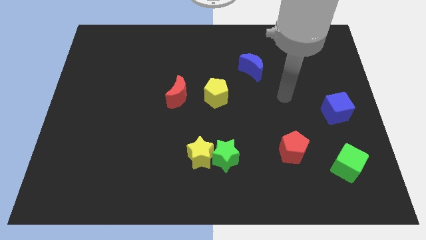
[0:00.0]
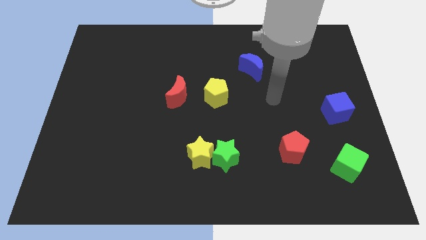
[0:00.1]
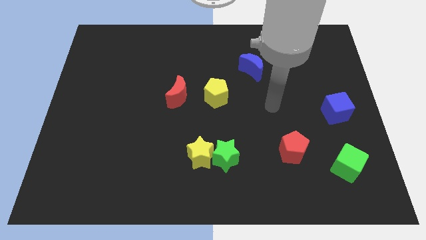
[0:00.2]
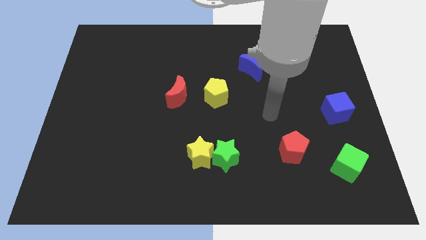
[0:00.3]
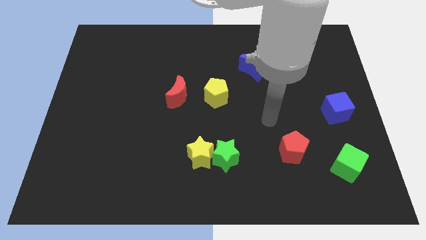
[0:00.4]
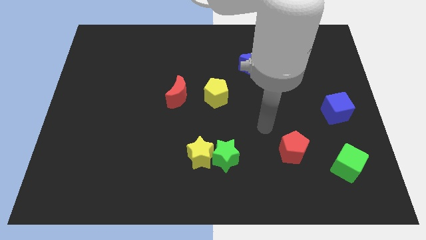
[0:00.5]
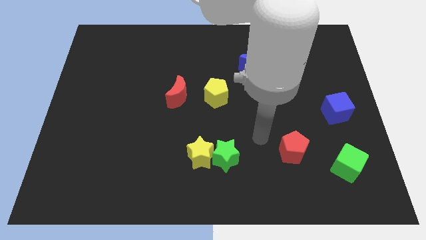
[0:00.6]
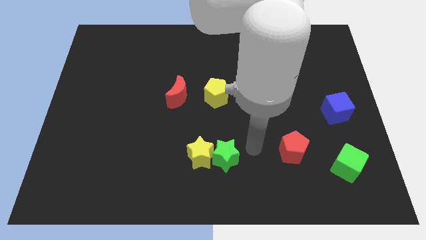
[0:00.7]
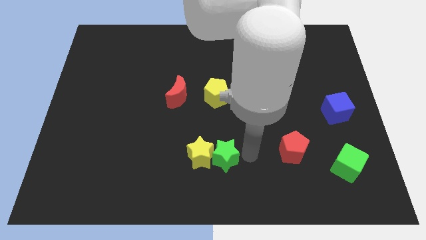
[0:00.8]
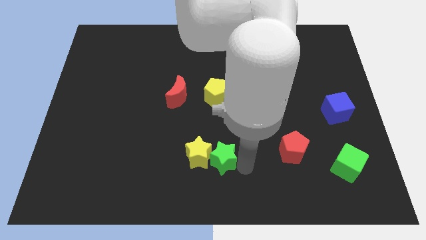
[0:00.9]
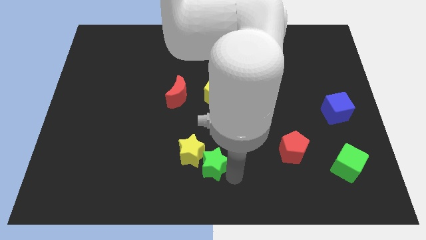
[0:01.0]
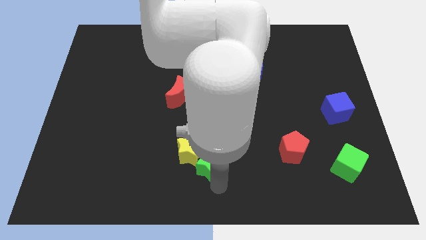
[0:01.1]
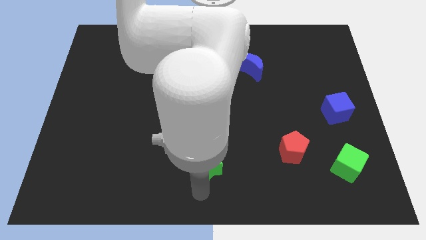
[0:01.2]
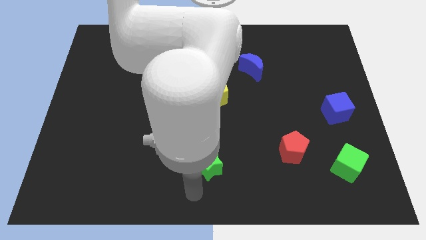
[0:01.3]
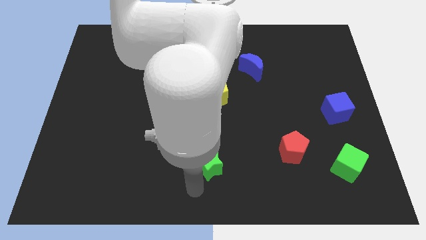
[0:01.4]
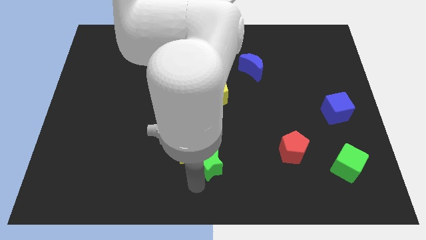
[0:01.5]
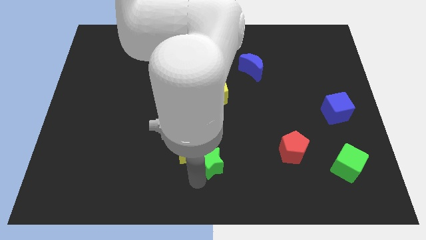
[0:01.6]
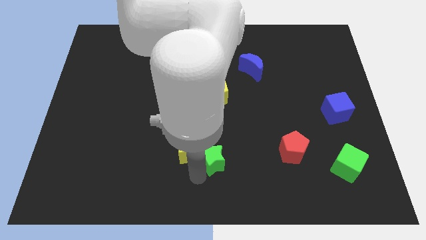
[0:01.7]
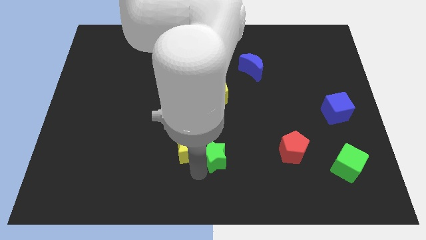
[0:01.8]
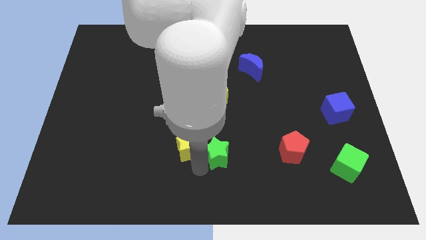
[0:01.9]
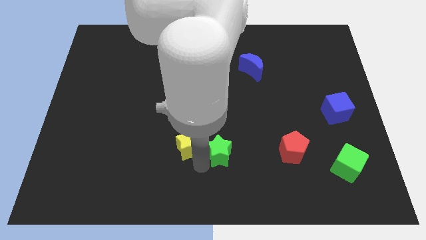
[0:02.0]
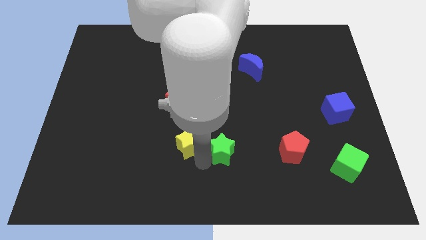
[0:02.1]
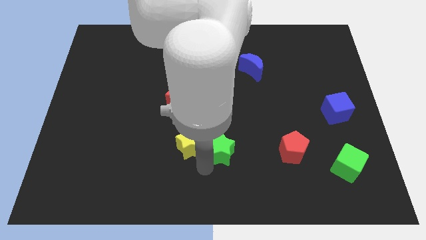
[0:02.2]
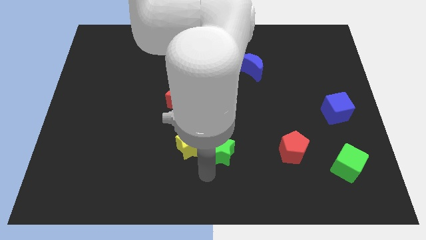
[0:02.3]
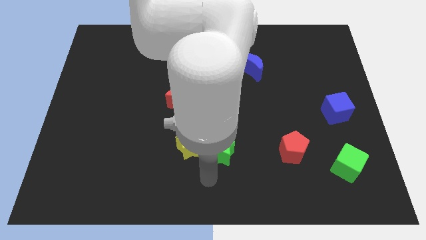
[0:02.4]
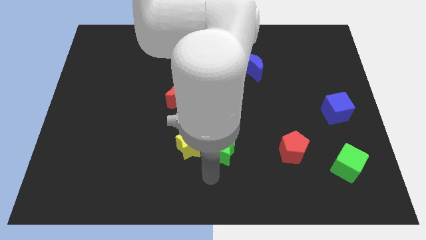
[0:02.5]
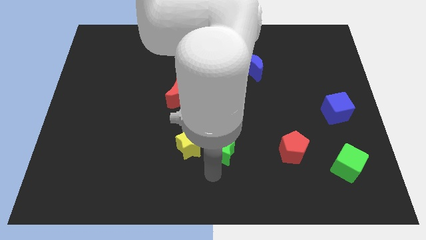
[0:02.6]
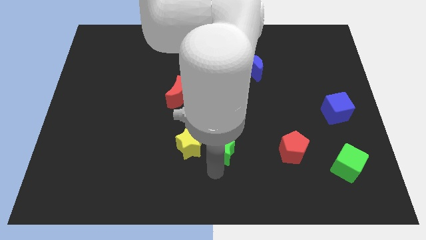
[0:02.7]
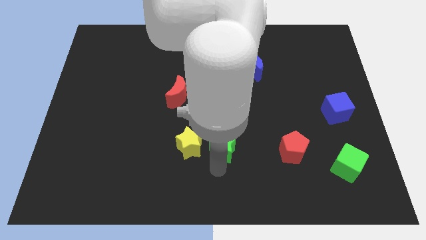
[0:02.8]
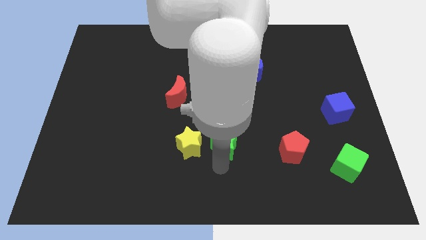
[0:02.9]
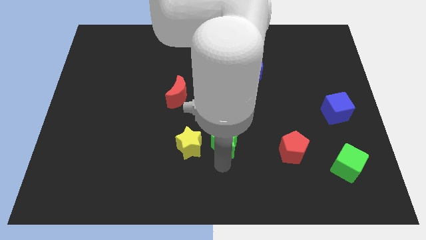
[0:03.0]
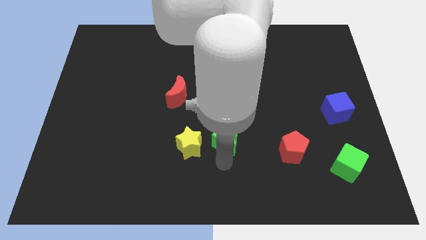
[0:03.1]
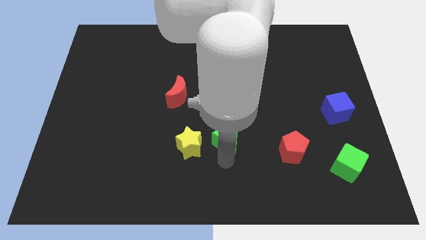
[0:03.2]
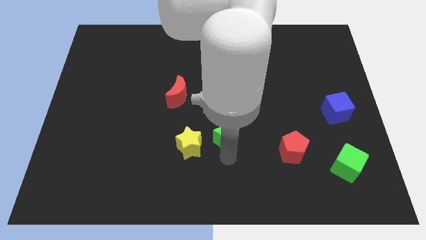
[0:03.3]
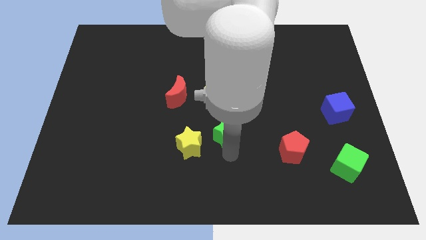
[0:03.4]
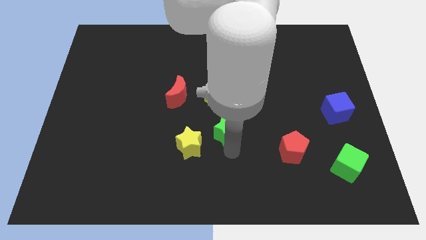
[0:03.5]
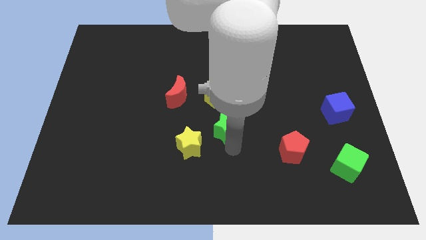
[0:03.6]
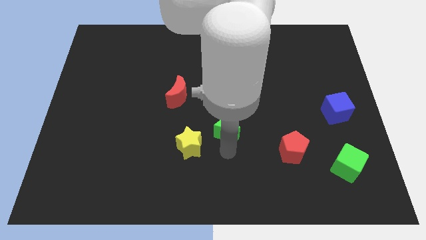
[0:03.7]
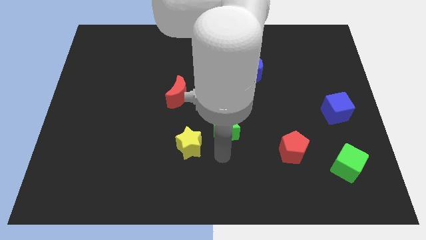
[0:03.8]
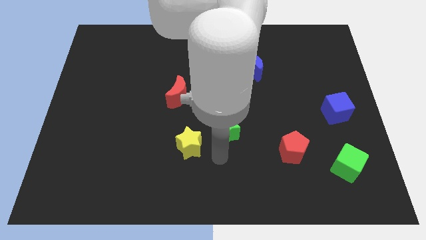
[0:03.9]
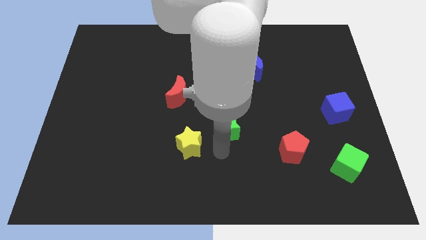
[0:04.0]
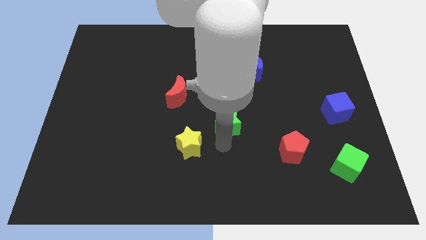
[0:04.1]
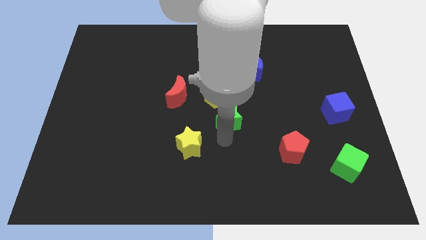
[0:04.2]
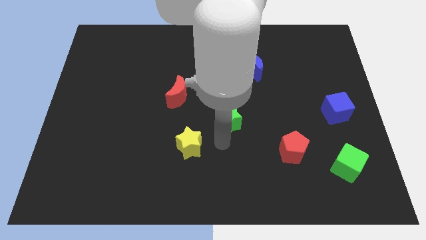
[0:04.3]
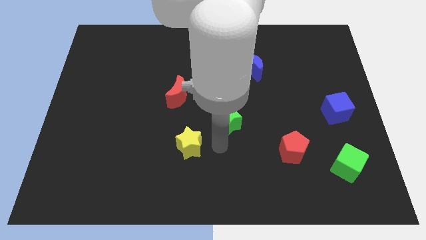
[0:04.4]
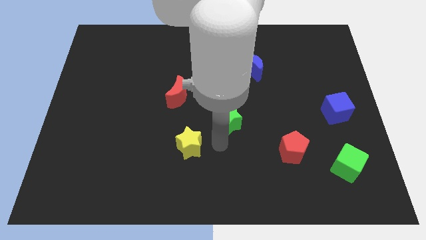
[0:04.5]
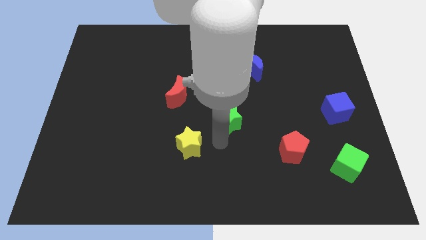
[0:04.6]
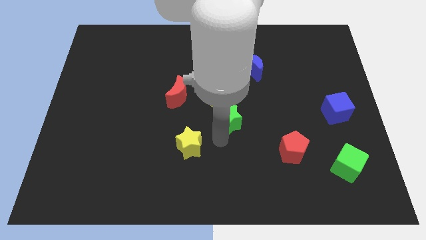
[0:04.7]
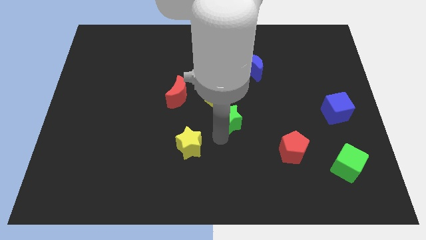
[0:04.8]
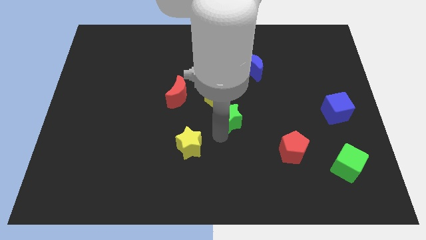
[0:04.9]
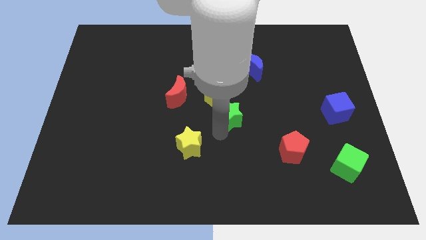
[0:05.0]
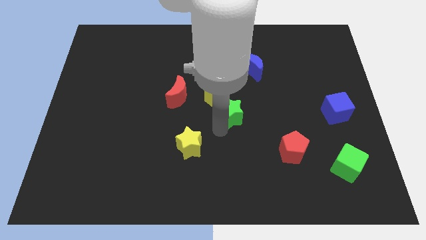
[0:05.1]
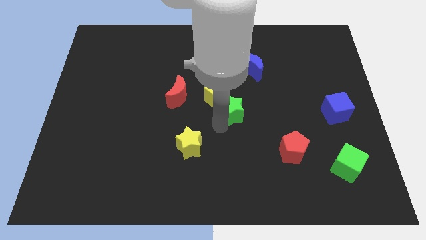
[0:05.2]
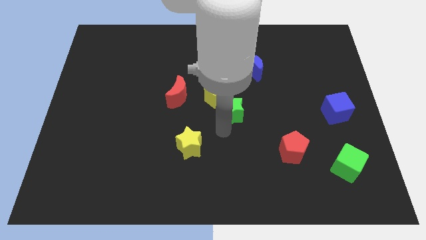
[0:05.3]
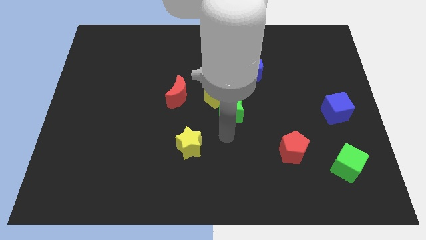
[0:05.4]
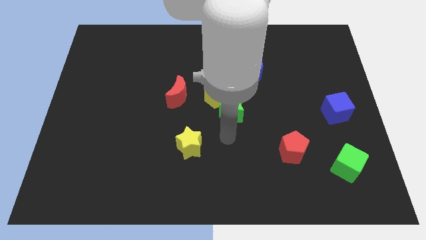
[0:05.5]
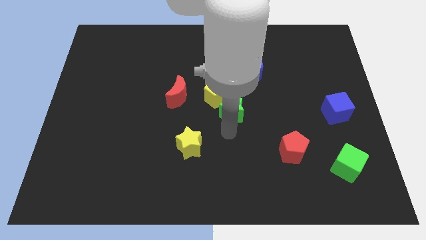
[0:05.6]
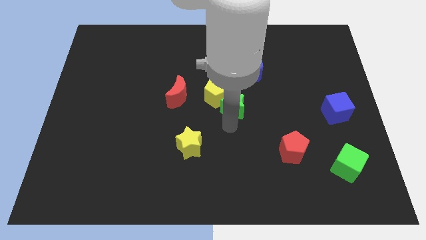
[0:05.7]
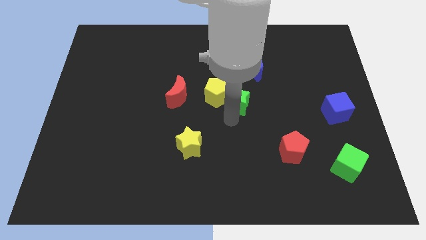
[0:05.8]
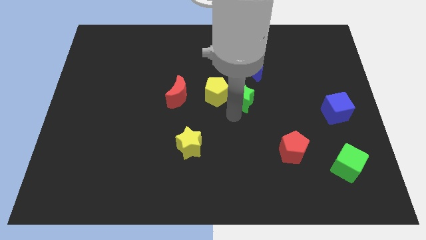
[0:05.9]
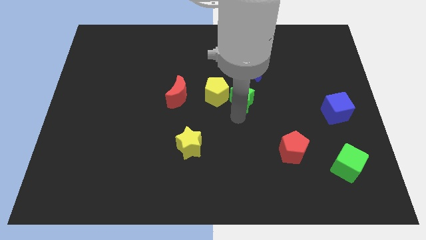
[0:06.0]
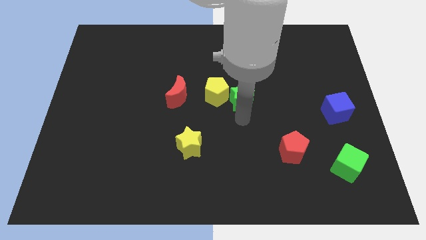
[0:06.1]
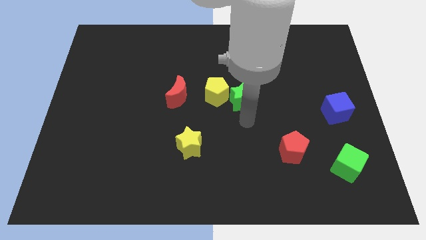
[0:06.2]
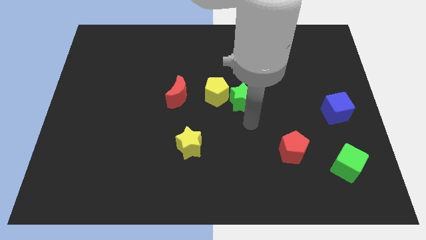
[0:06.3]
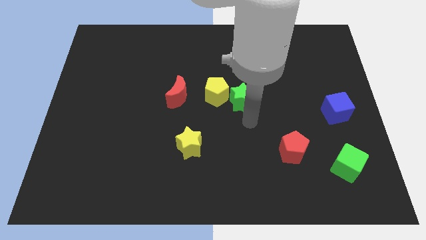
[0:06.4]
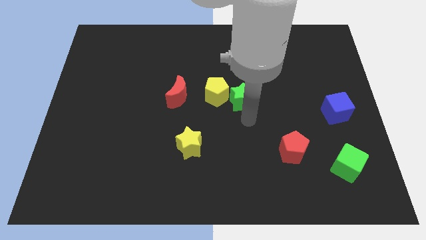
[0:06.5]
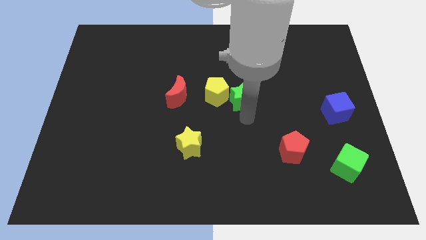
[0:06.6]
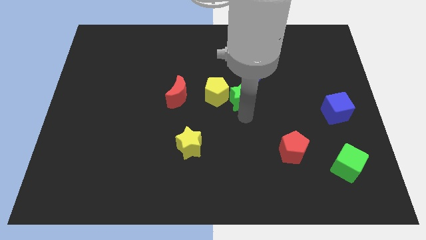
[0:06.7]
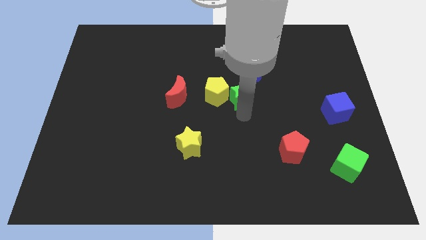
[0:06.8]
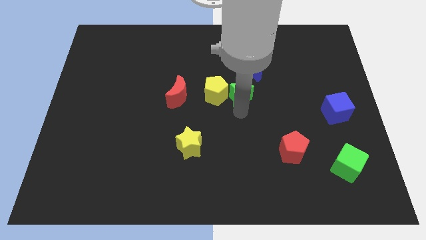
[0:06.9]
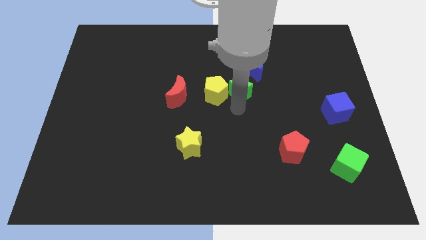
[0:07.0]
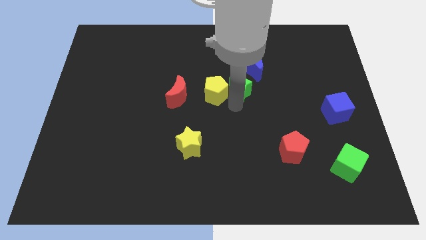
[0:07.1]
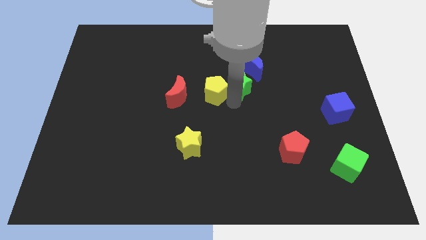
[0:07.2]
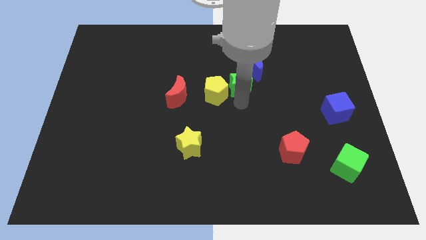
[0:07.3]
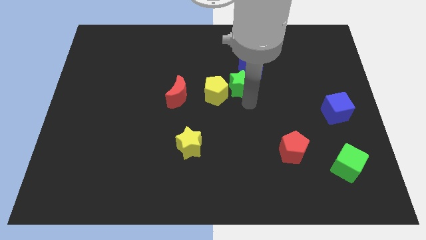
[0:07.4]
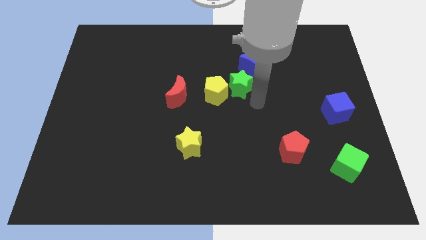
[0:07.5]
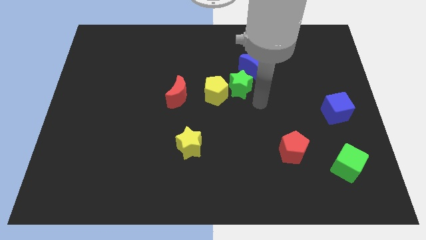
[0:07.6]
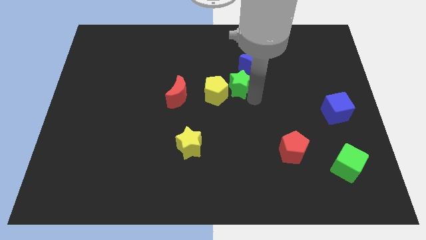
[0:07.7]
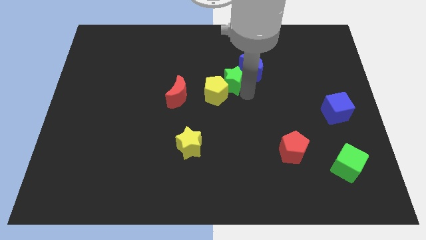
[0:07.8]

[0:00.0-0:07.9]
push the green star to the left of the blue moon
